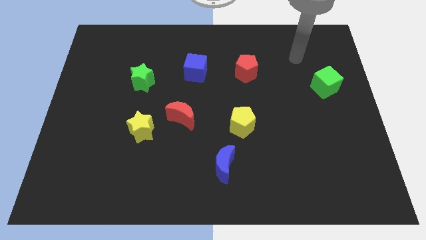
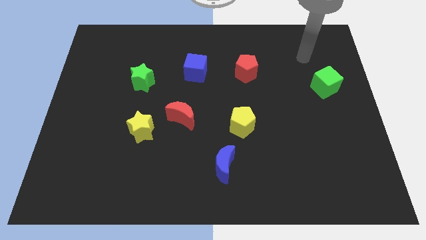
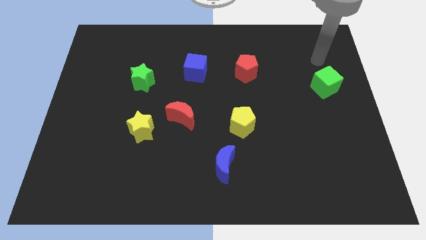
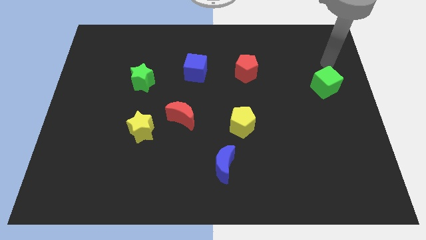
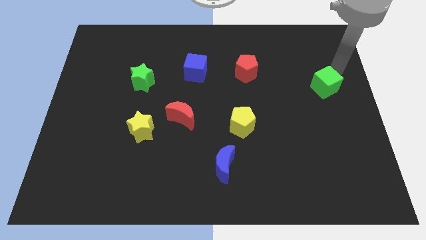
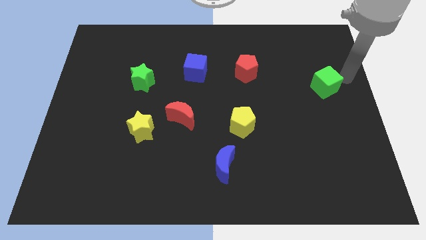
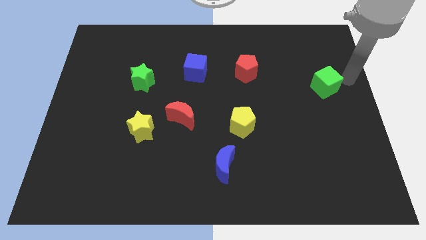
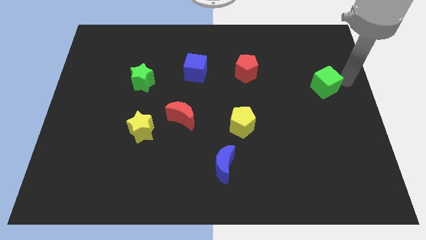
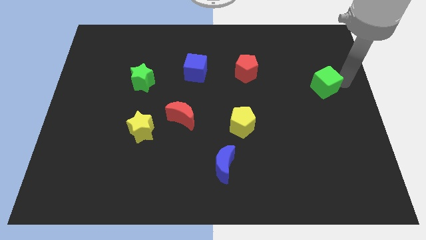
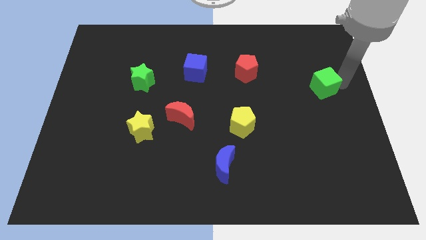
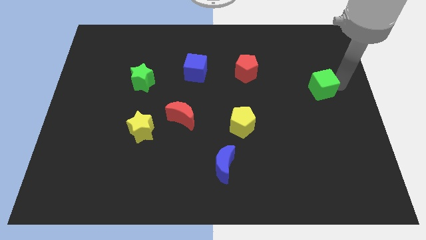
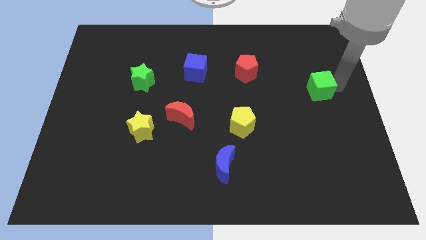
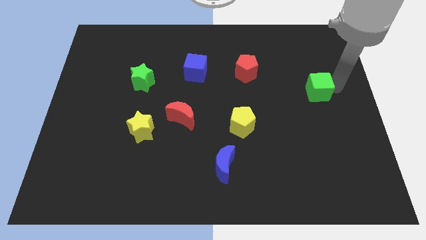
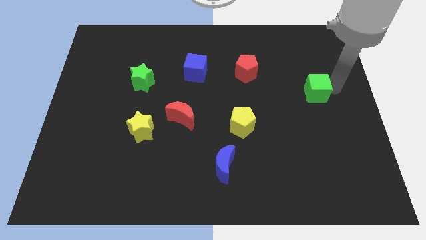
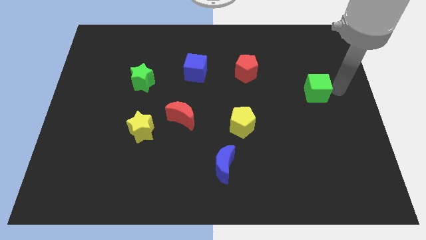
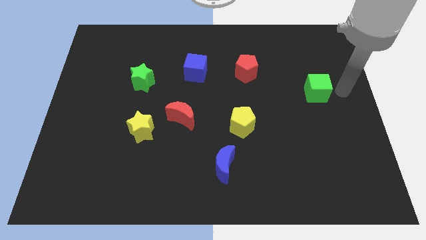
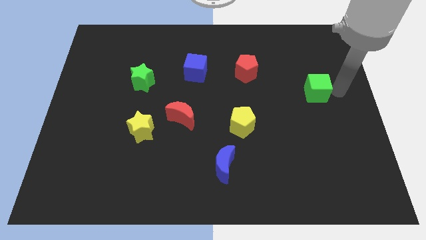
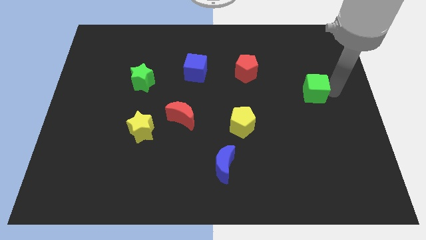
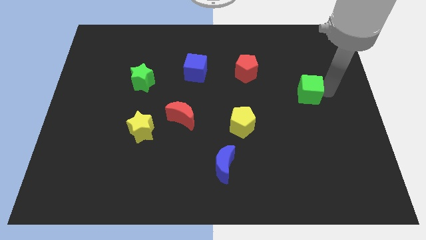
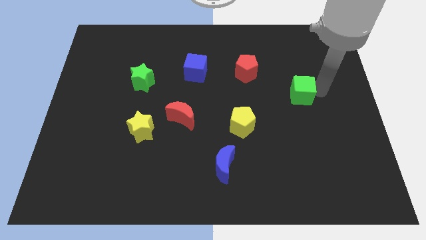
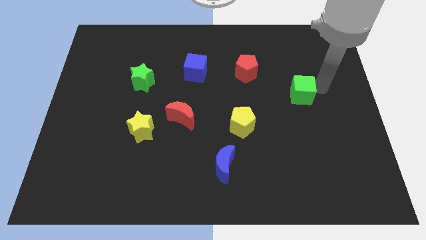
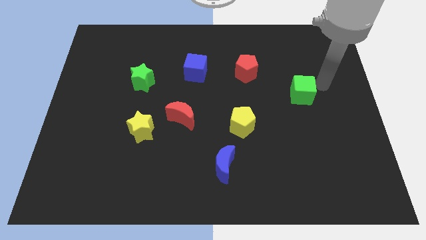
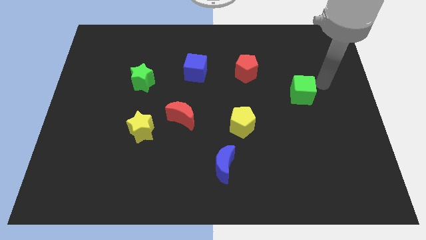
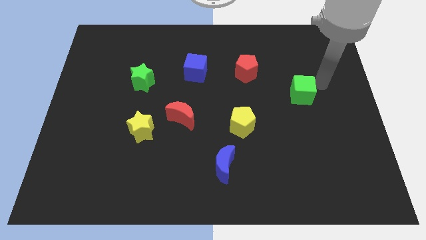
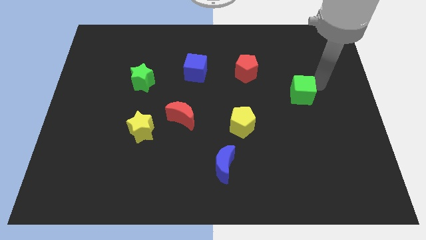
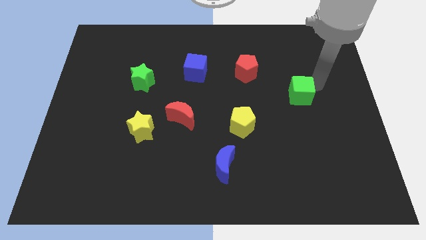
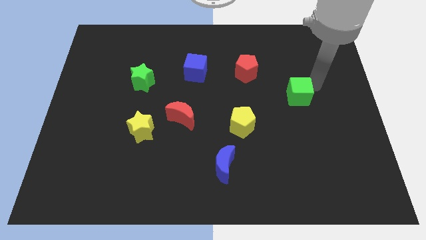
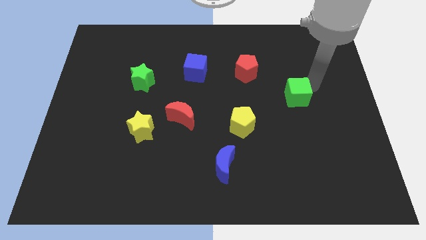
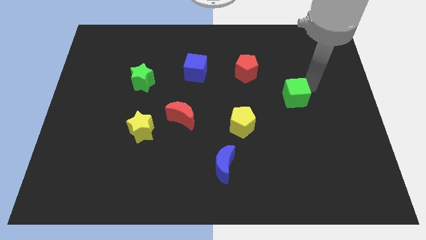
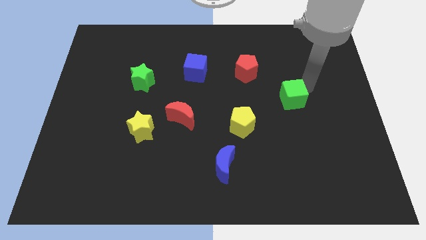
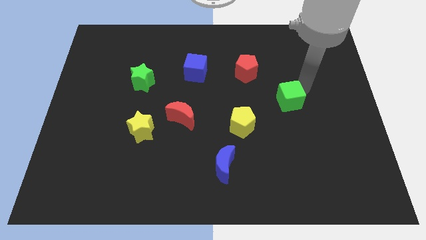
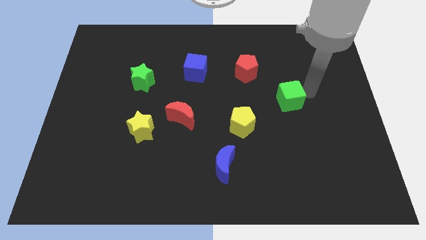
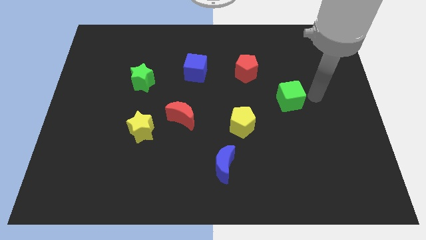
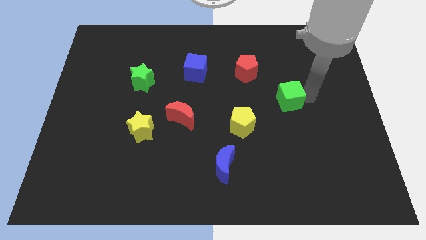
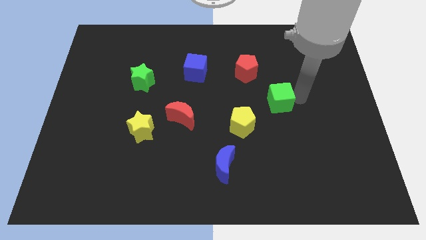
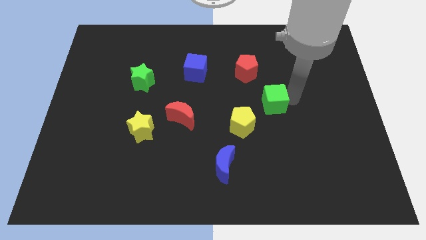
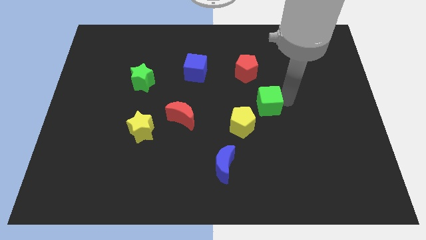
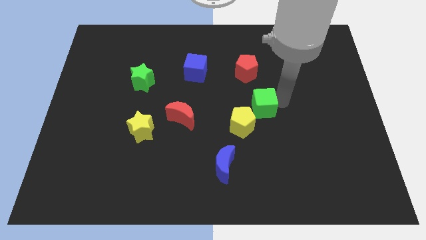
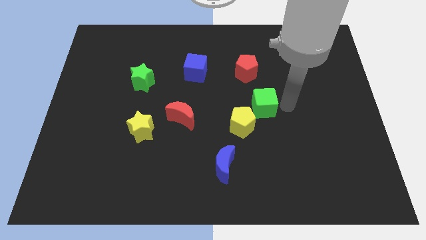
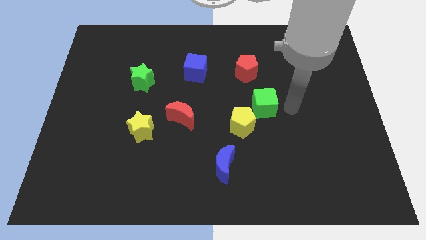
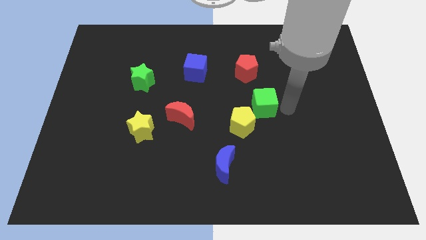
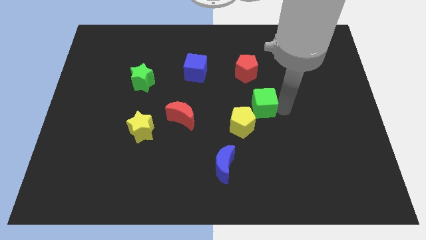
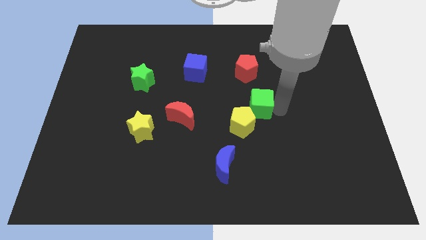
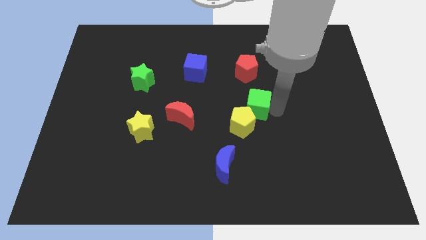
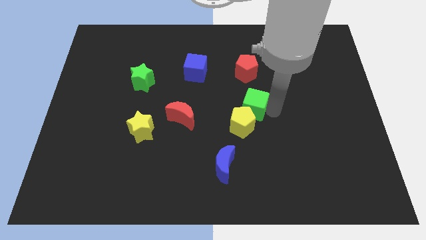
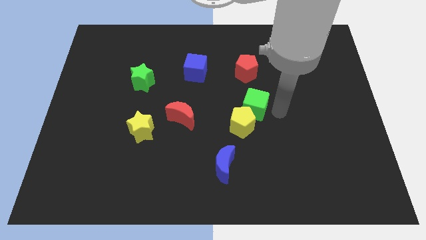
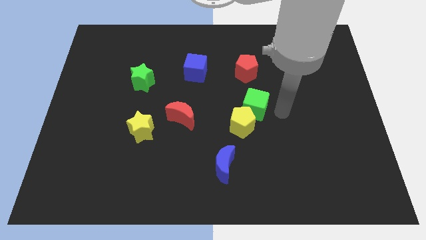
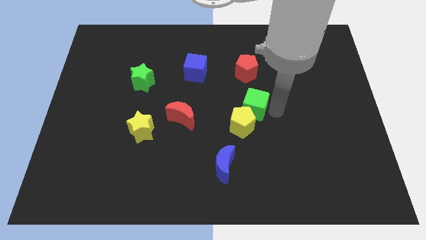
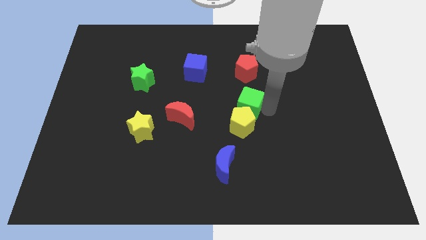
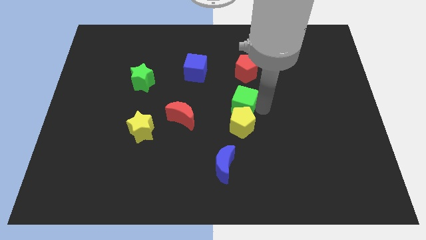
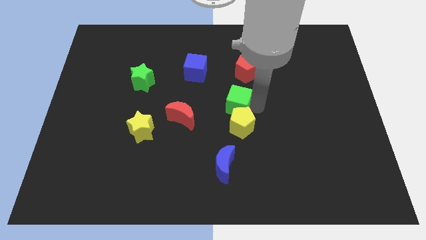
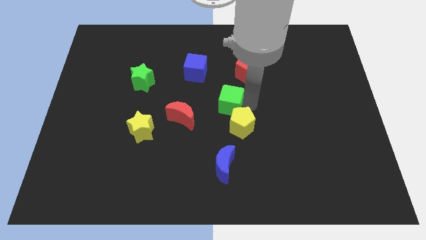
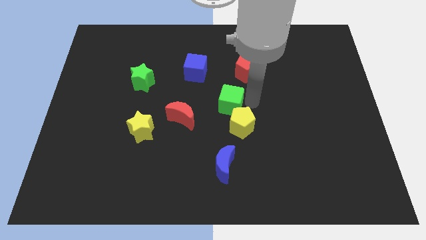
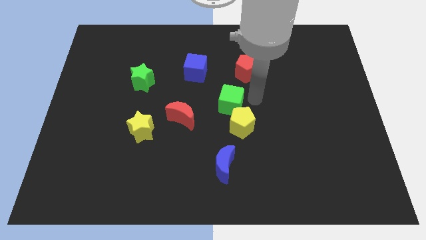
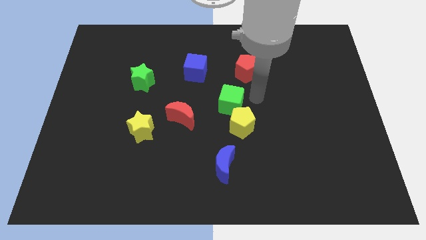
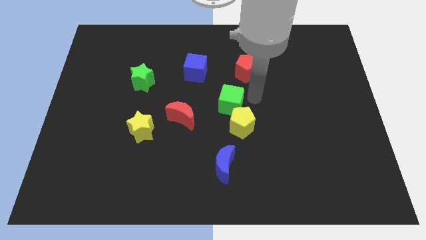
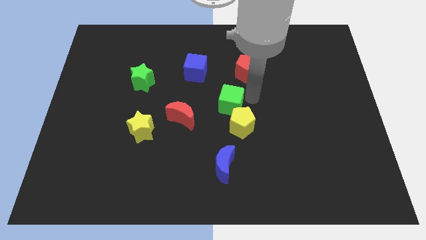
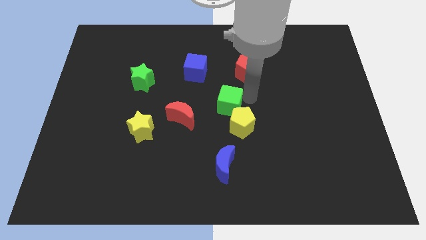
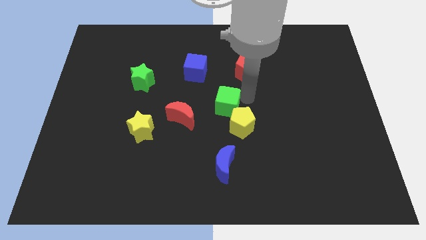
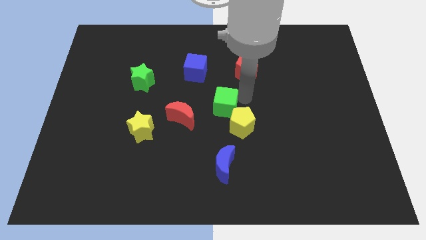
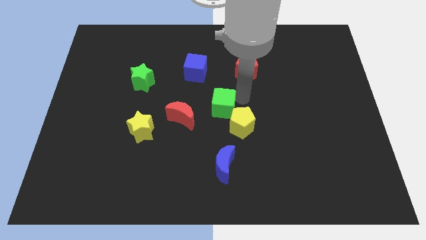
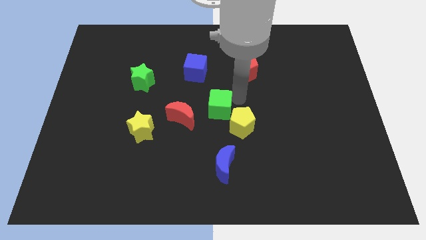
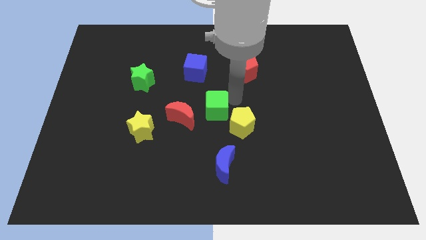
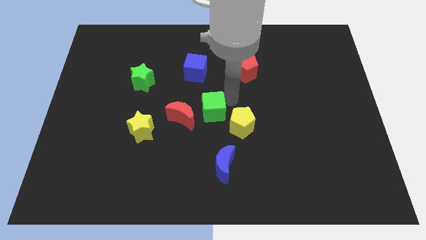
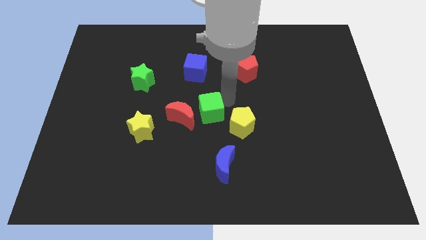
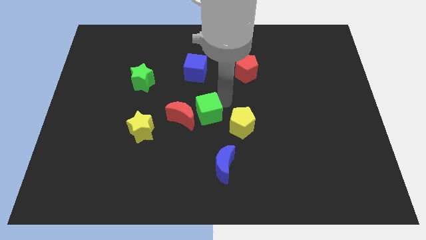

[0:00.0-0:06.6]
slide the green cube next to the red moon
